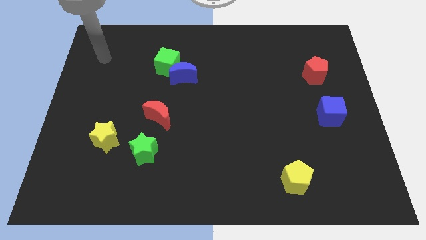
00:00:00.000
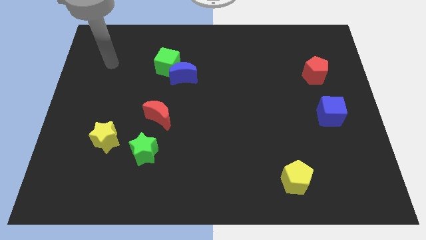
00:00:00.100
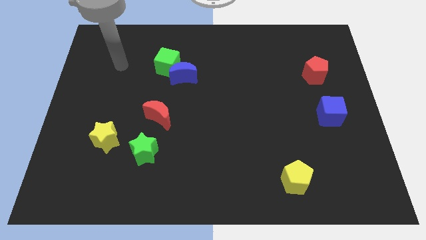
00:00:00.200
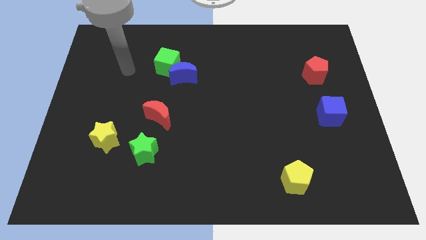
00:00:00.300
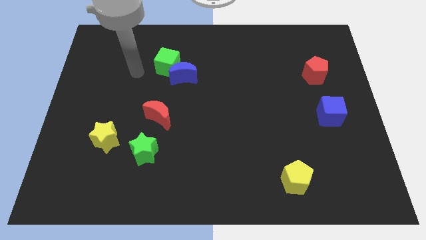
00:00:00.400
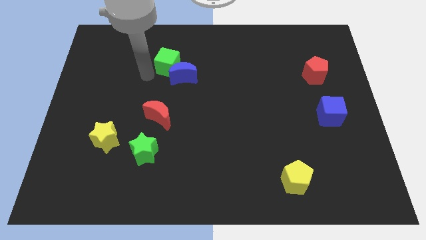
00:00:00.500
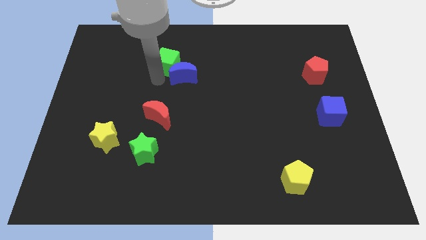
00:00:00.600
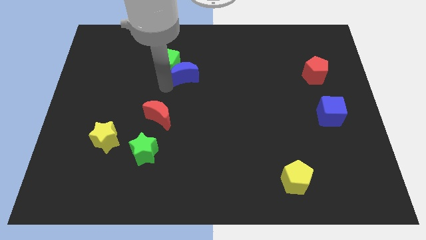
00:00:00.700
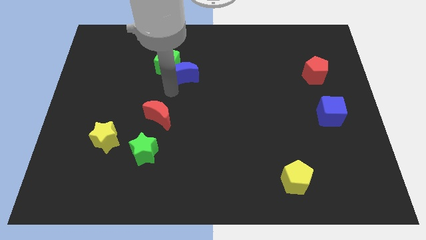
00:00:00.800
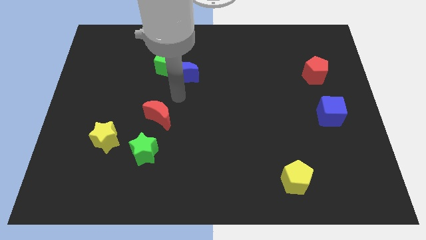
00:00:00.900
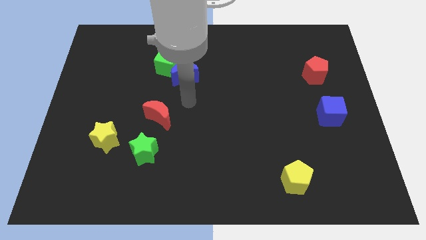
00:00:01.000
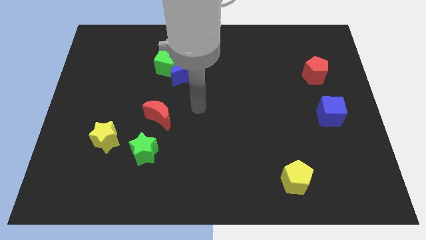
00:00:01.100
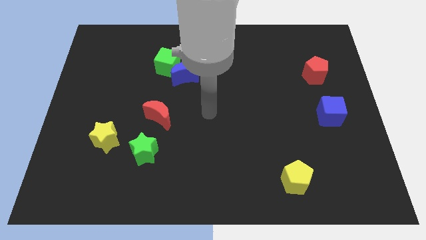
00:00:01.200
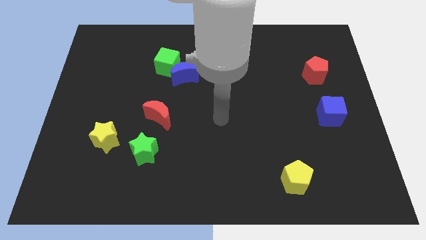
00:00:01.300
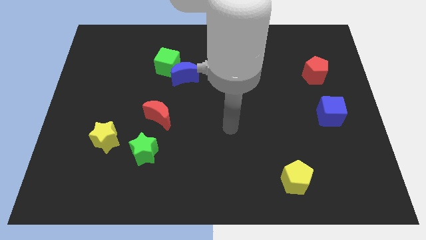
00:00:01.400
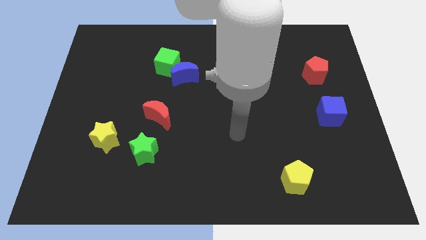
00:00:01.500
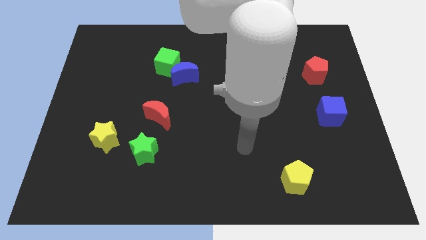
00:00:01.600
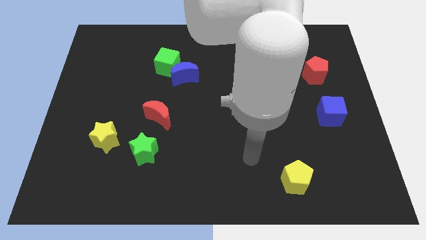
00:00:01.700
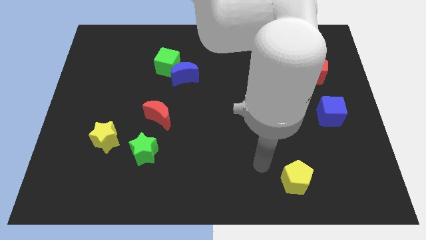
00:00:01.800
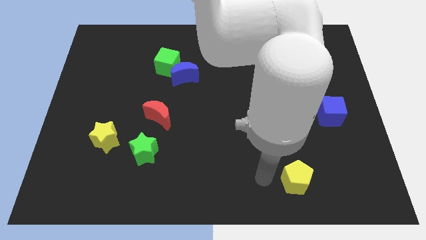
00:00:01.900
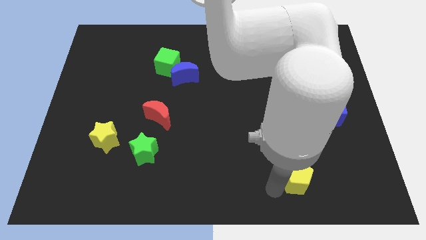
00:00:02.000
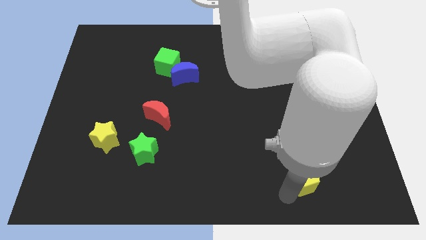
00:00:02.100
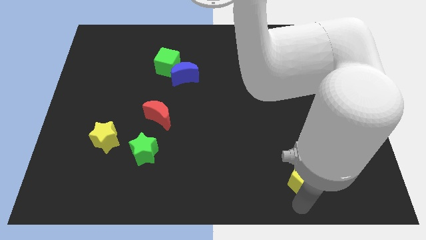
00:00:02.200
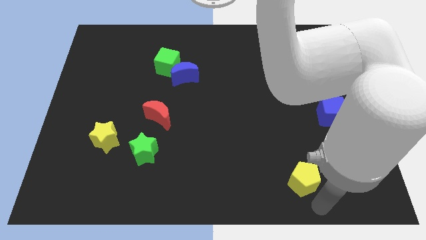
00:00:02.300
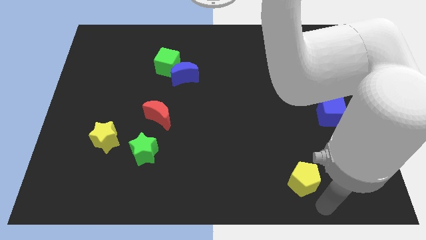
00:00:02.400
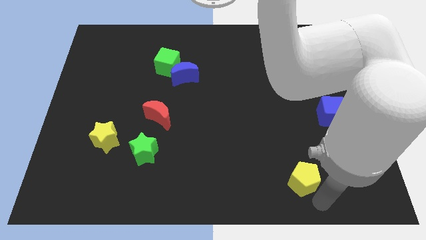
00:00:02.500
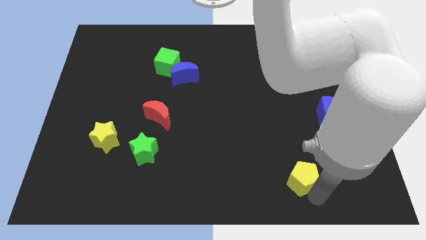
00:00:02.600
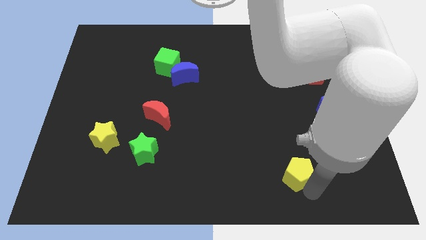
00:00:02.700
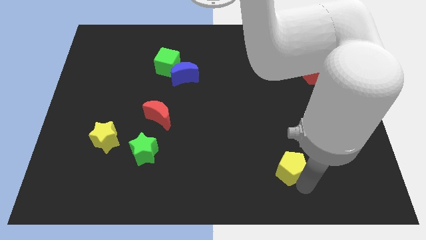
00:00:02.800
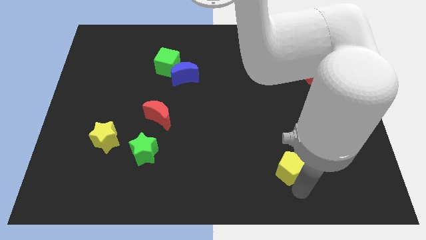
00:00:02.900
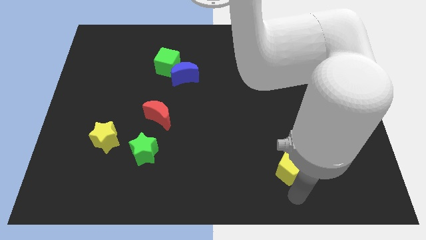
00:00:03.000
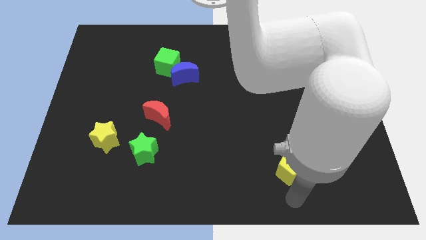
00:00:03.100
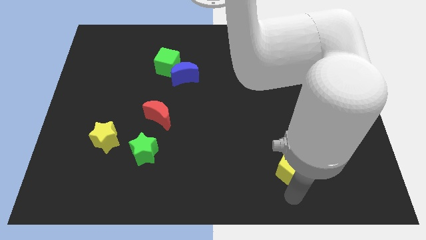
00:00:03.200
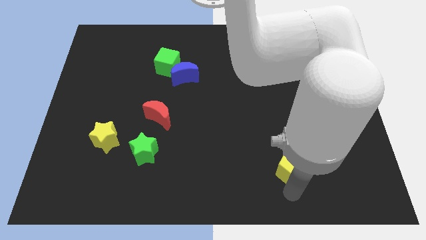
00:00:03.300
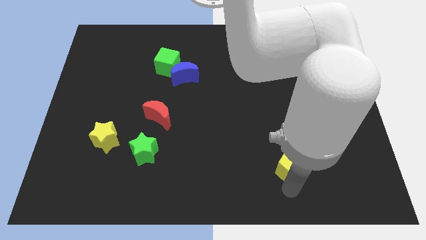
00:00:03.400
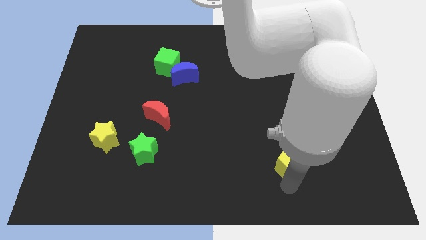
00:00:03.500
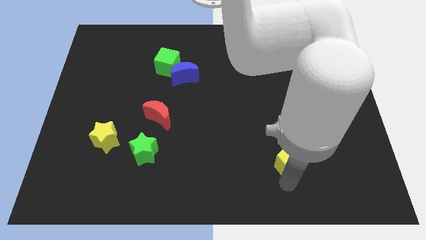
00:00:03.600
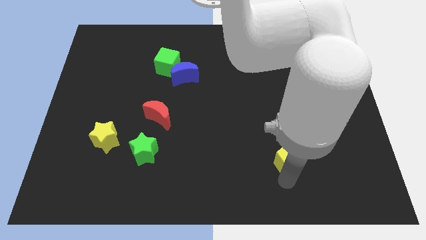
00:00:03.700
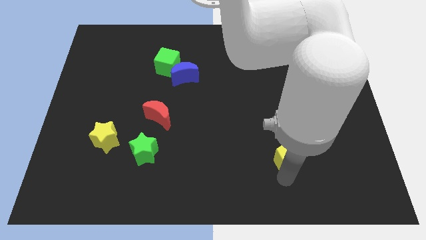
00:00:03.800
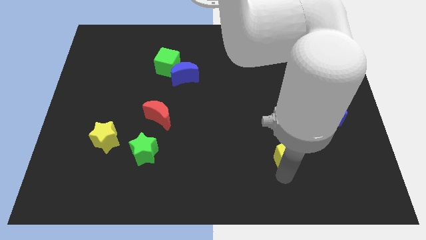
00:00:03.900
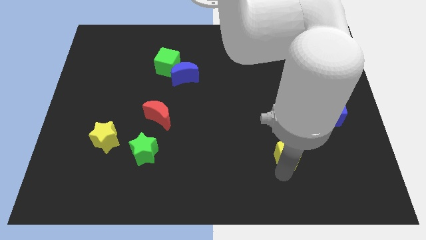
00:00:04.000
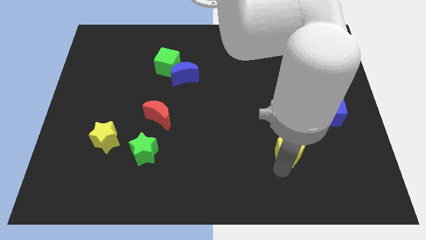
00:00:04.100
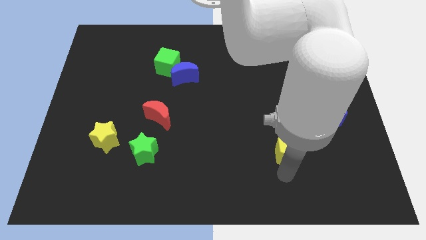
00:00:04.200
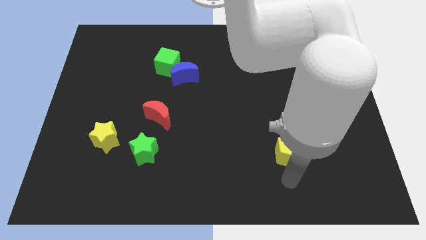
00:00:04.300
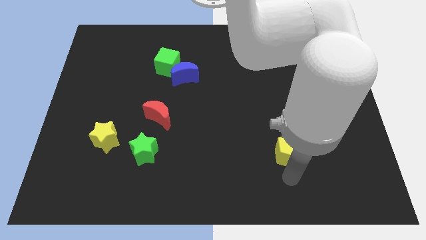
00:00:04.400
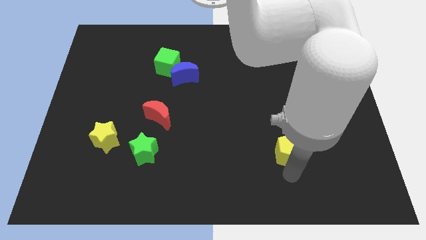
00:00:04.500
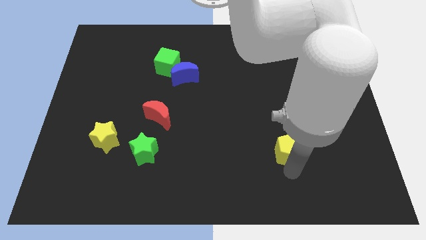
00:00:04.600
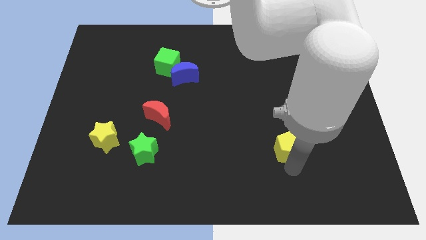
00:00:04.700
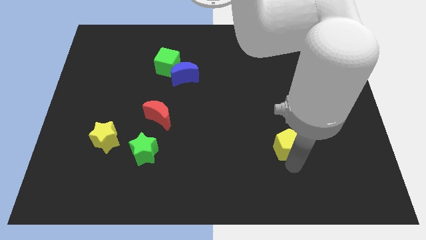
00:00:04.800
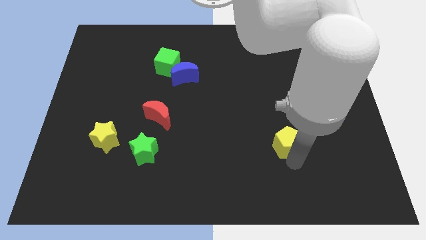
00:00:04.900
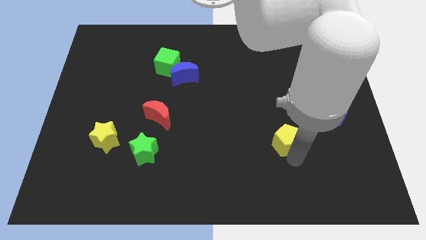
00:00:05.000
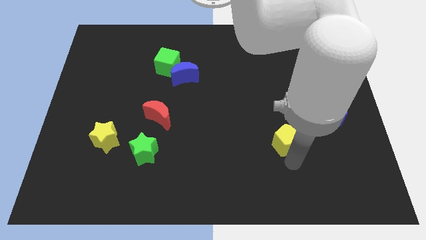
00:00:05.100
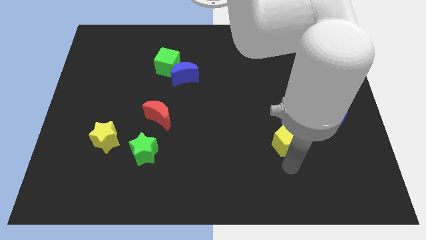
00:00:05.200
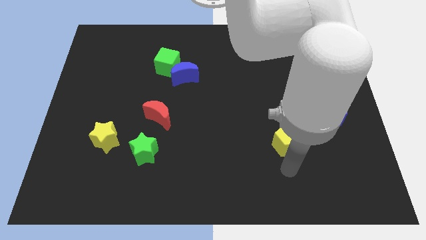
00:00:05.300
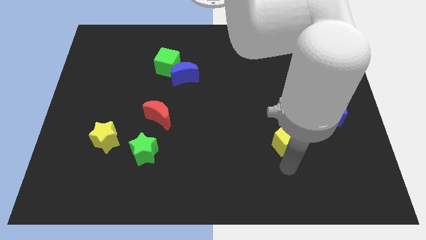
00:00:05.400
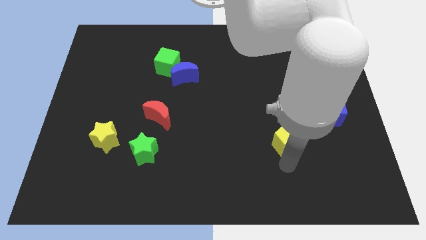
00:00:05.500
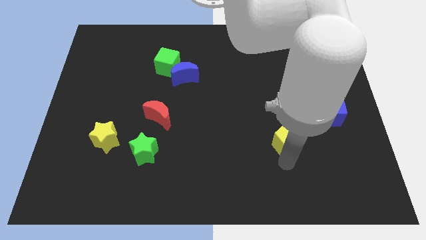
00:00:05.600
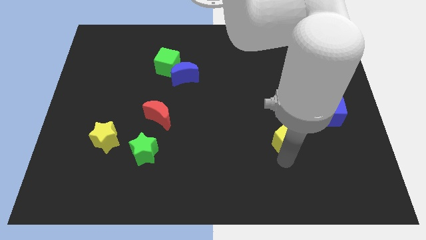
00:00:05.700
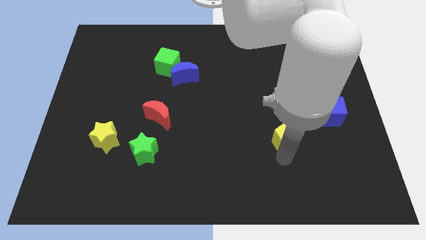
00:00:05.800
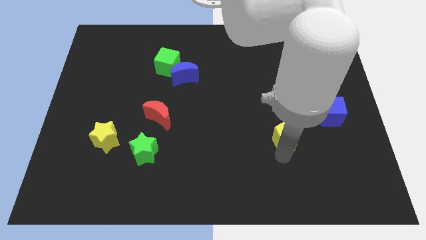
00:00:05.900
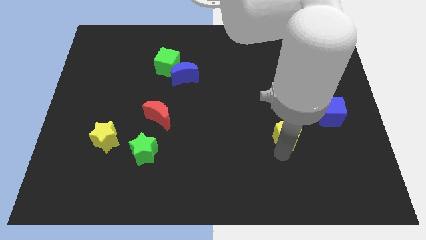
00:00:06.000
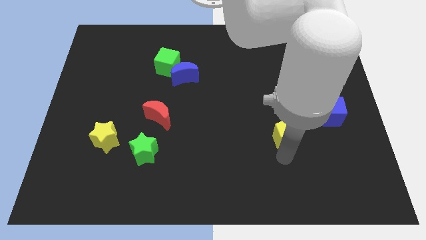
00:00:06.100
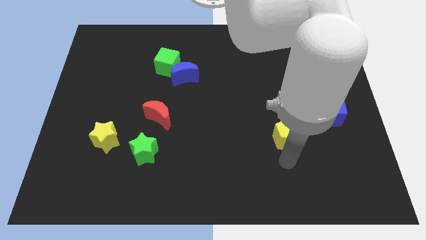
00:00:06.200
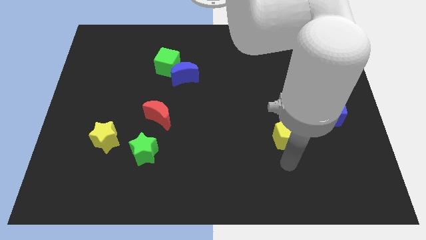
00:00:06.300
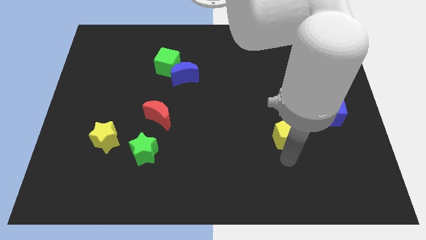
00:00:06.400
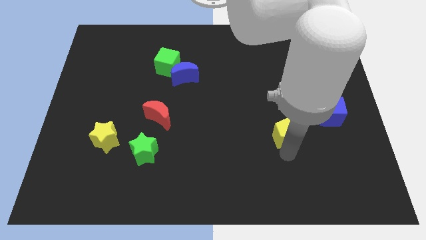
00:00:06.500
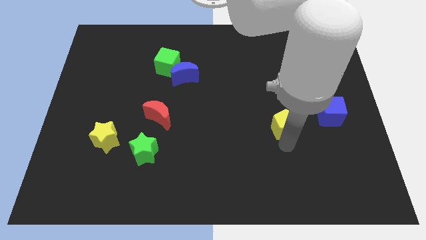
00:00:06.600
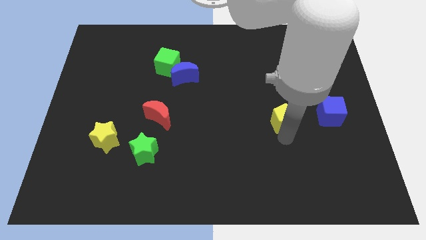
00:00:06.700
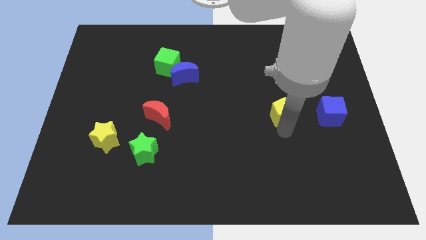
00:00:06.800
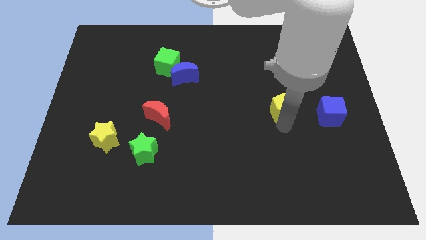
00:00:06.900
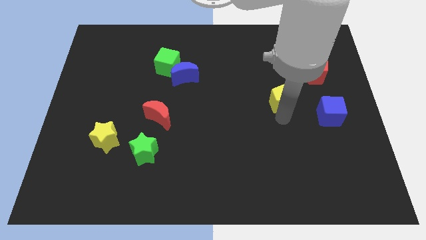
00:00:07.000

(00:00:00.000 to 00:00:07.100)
slide the yellow pentagon upwards

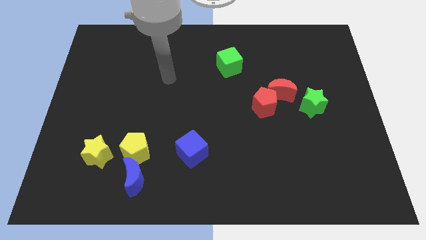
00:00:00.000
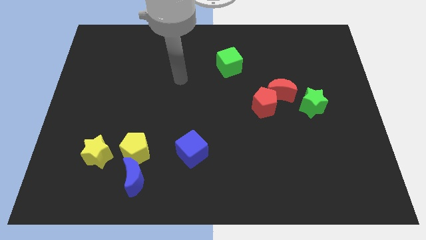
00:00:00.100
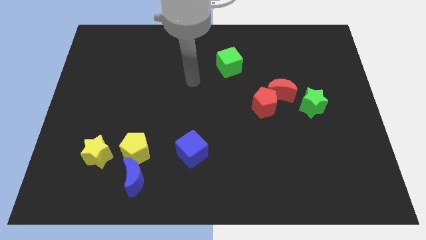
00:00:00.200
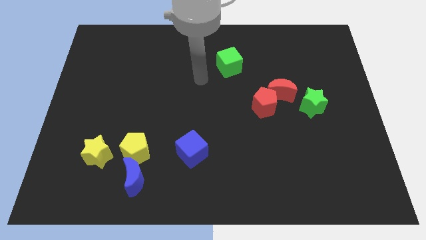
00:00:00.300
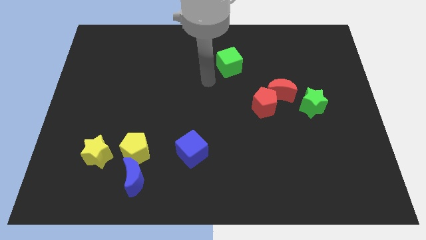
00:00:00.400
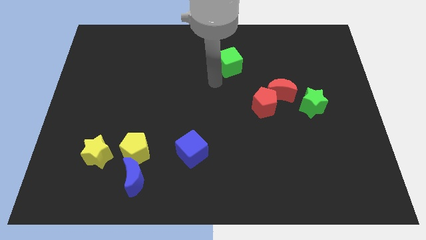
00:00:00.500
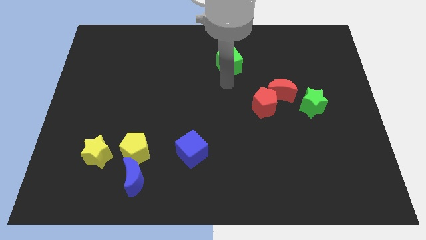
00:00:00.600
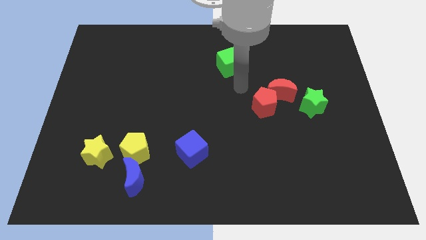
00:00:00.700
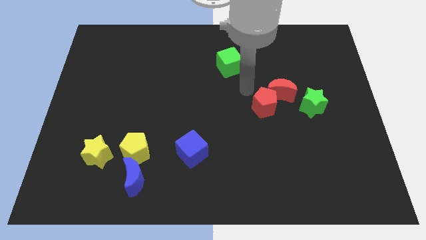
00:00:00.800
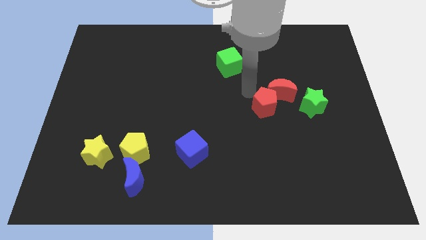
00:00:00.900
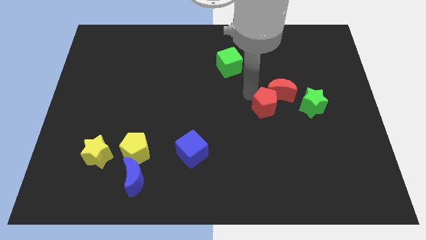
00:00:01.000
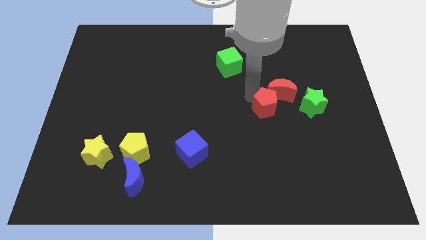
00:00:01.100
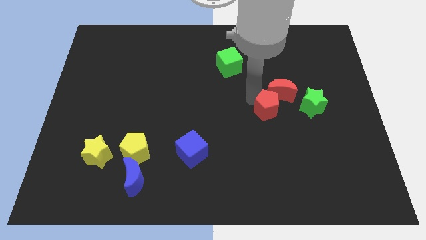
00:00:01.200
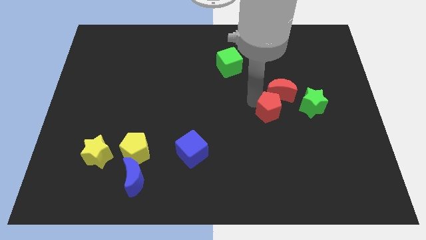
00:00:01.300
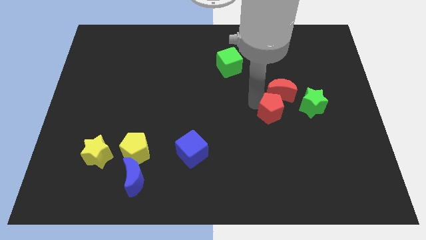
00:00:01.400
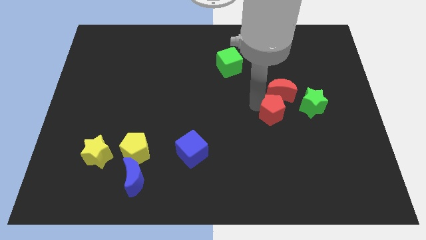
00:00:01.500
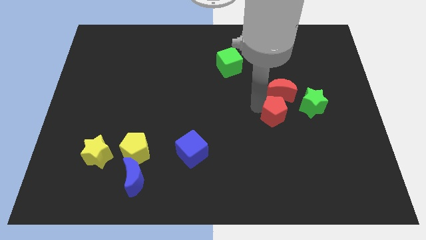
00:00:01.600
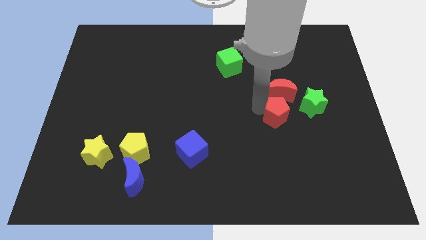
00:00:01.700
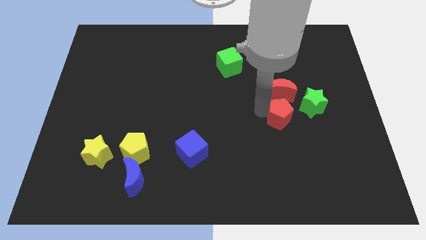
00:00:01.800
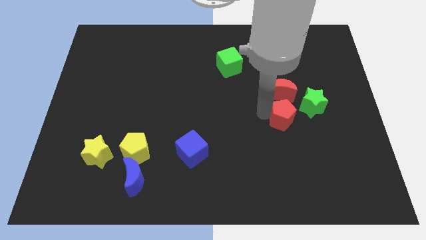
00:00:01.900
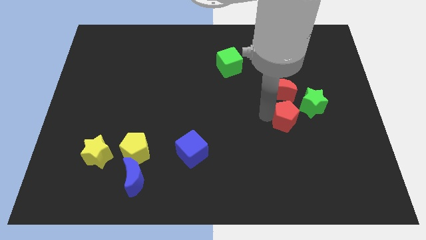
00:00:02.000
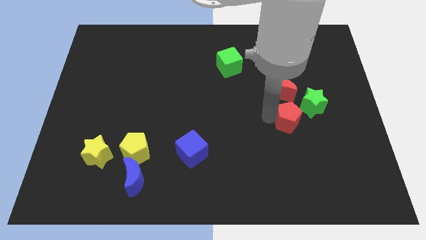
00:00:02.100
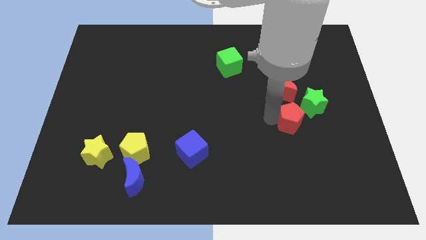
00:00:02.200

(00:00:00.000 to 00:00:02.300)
slightly push the red pentagon down and to the right
